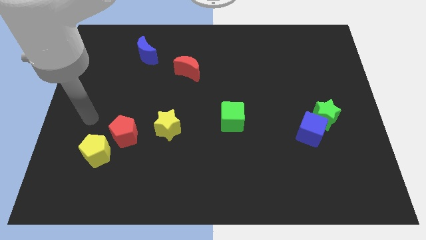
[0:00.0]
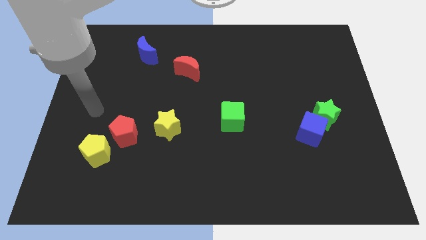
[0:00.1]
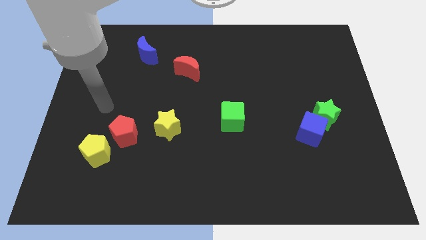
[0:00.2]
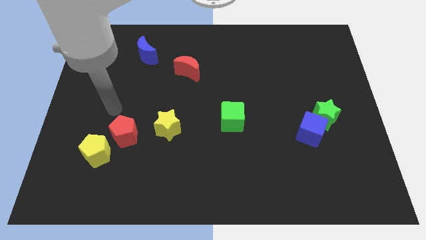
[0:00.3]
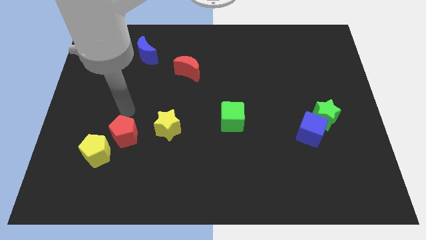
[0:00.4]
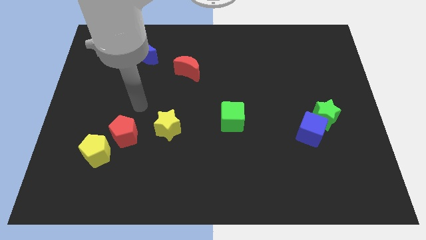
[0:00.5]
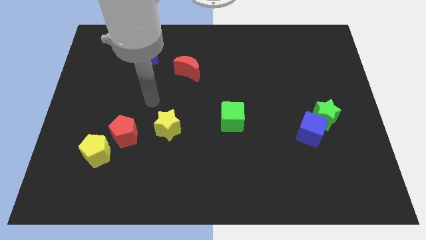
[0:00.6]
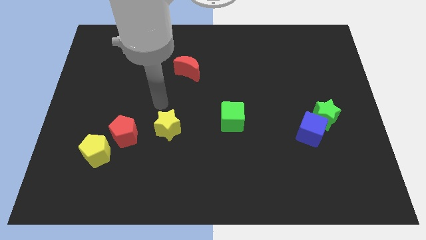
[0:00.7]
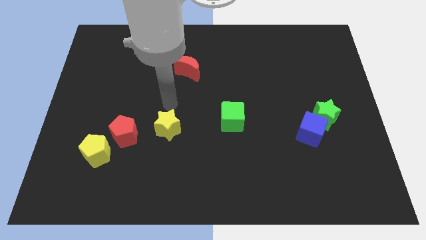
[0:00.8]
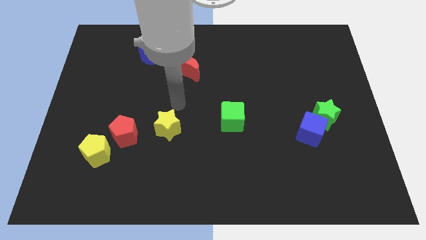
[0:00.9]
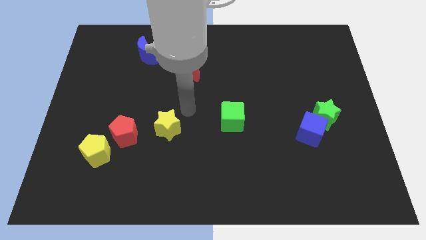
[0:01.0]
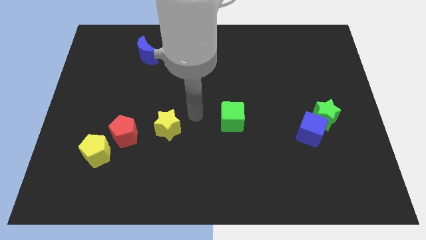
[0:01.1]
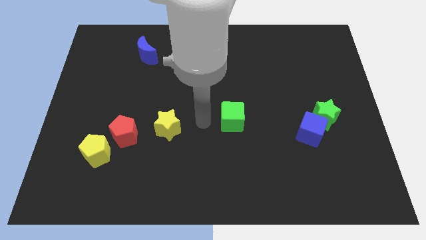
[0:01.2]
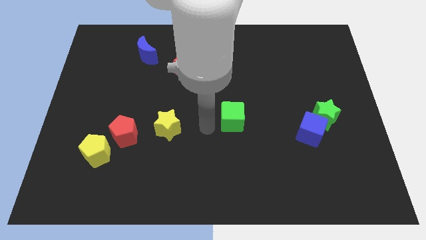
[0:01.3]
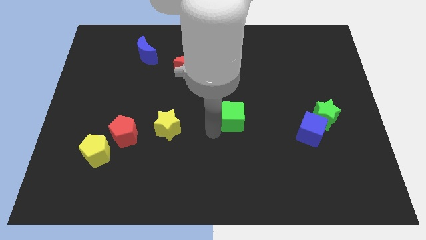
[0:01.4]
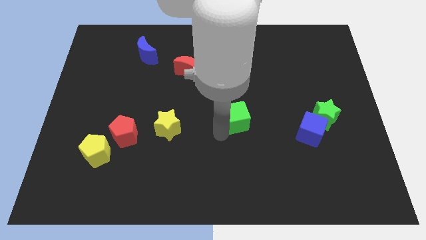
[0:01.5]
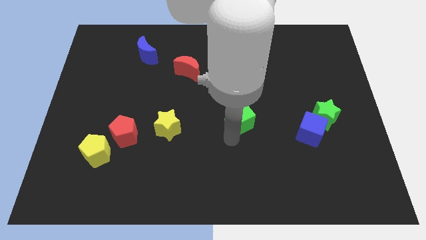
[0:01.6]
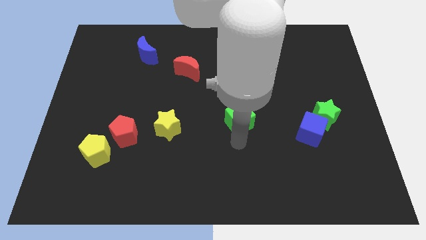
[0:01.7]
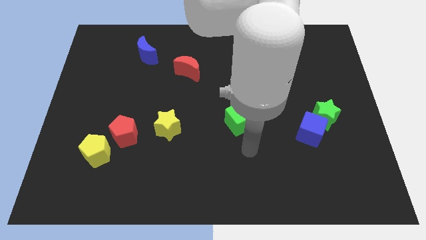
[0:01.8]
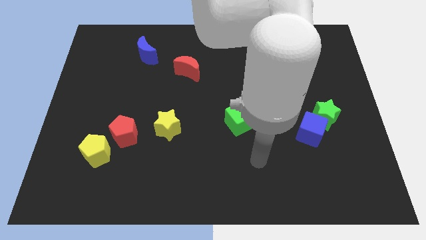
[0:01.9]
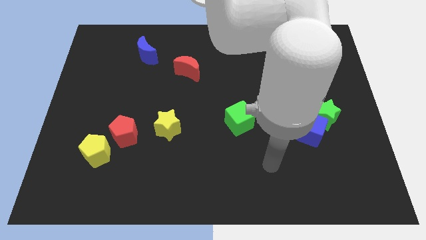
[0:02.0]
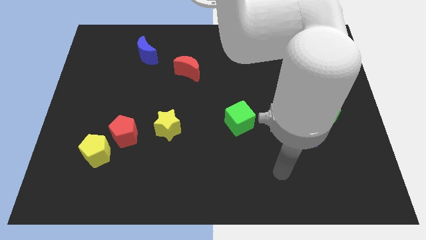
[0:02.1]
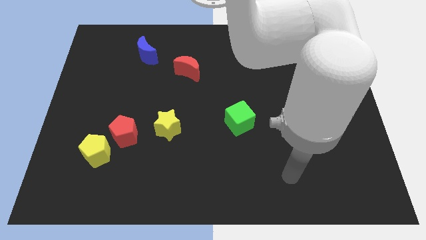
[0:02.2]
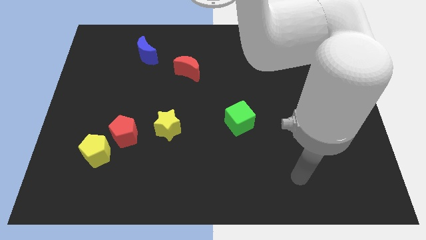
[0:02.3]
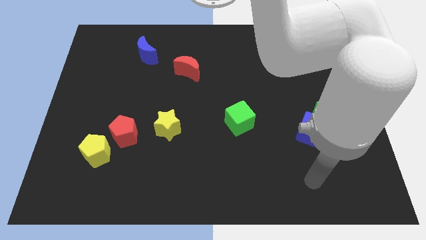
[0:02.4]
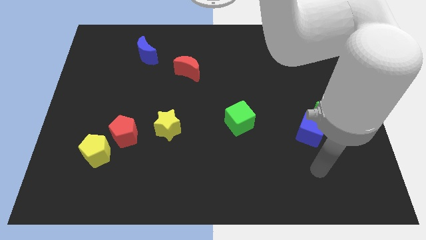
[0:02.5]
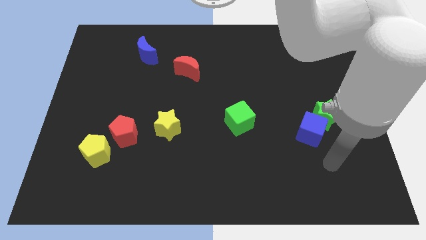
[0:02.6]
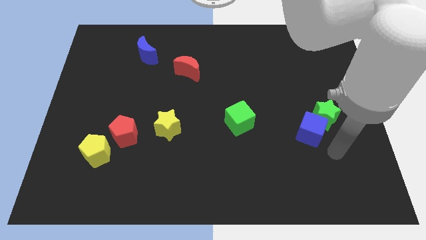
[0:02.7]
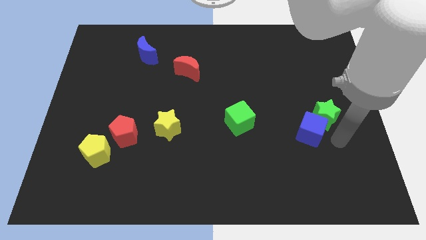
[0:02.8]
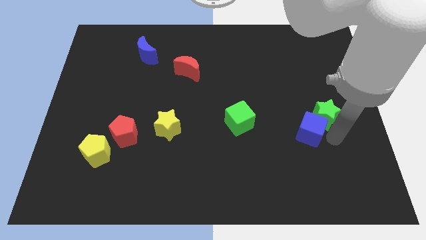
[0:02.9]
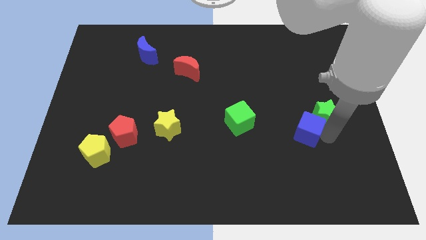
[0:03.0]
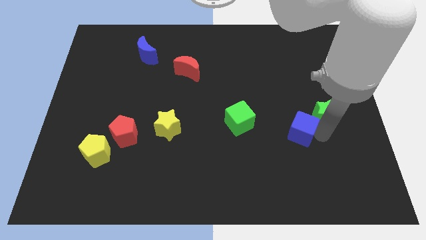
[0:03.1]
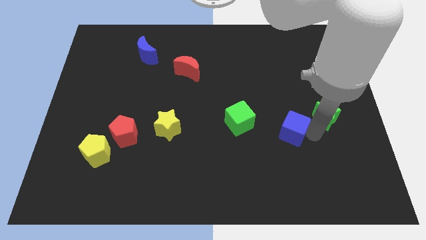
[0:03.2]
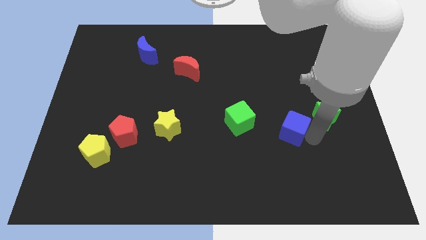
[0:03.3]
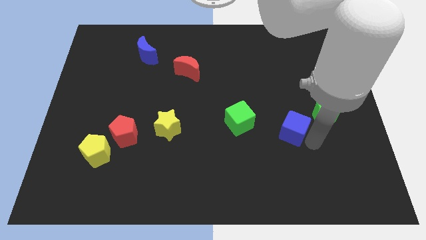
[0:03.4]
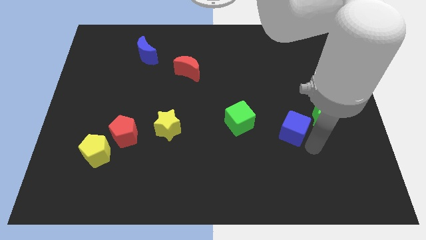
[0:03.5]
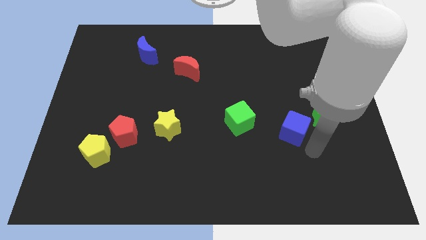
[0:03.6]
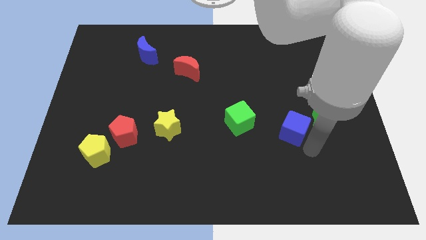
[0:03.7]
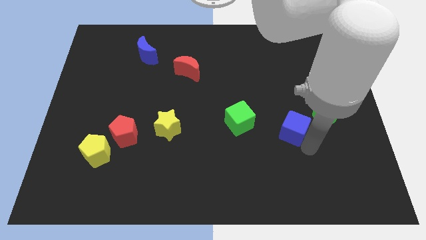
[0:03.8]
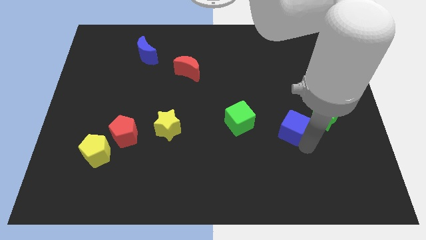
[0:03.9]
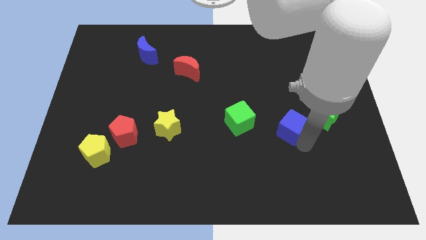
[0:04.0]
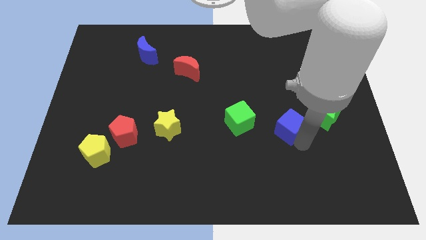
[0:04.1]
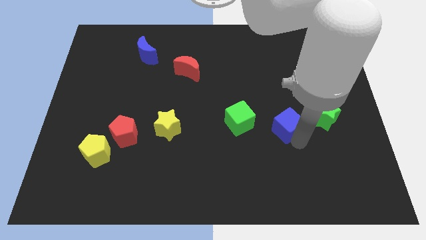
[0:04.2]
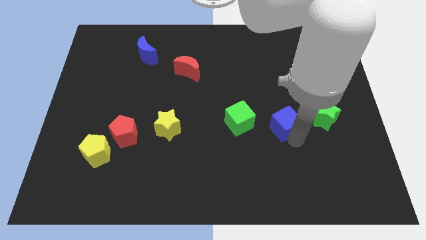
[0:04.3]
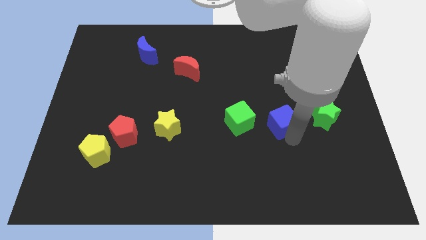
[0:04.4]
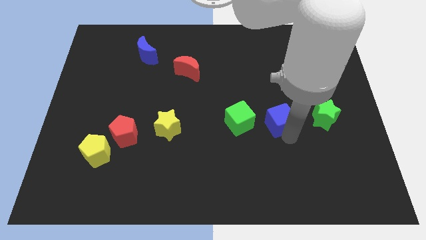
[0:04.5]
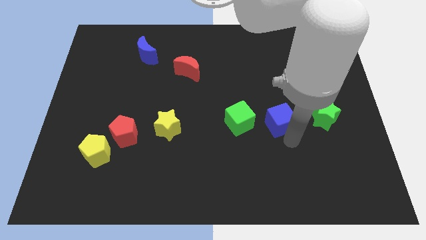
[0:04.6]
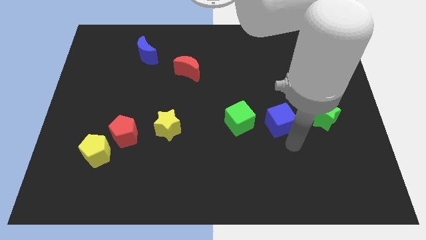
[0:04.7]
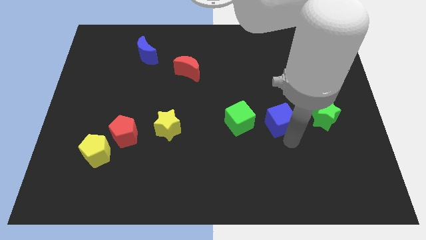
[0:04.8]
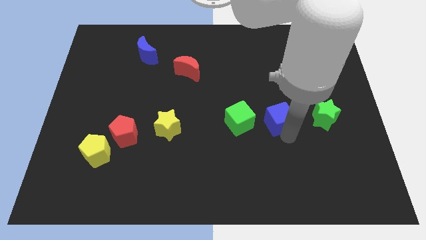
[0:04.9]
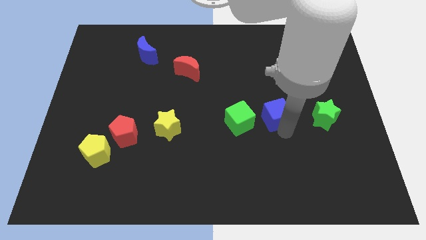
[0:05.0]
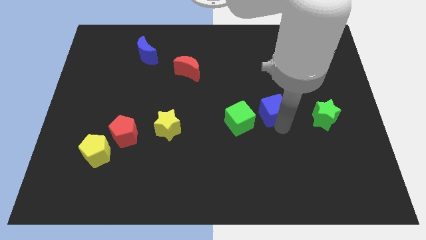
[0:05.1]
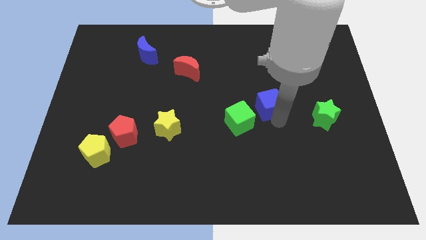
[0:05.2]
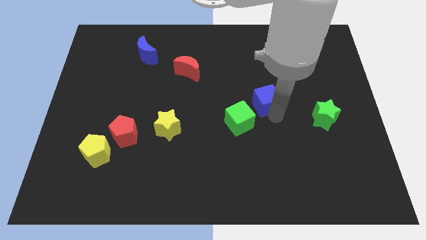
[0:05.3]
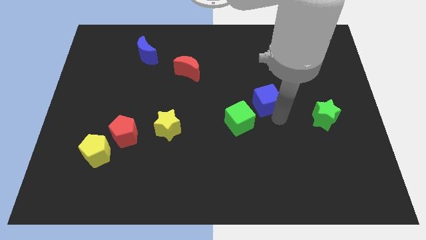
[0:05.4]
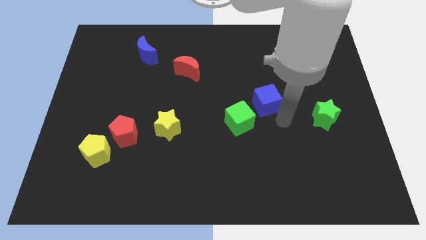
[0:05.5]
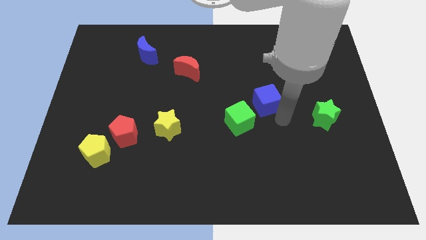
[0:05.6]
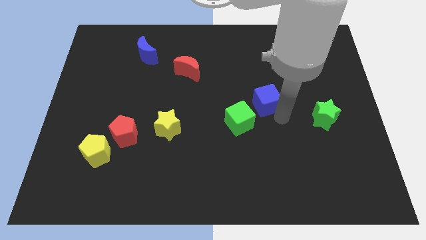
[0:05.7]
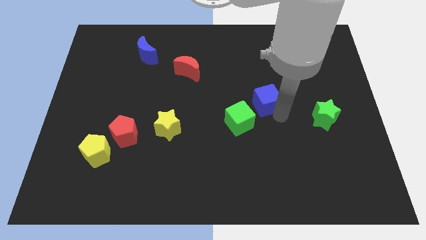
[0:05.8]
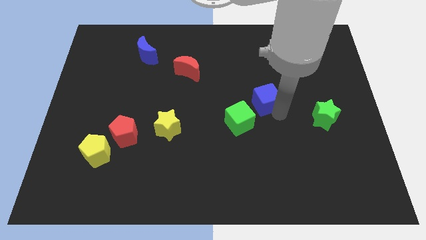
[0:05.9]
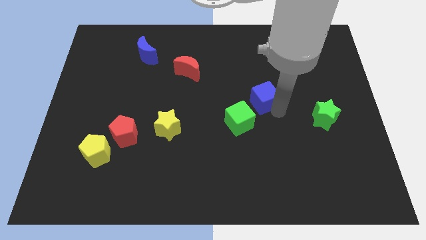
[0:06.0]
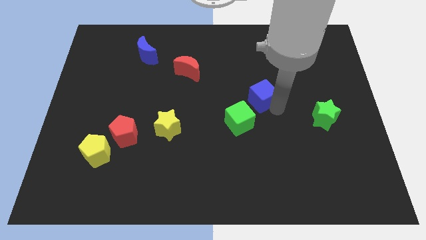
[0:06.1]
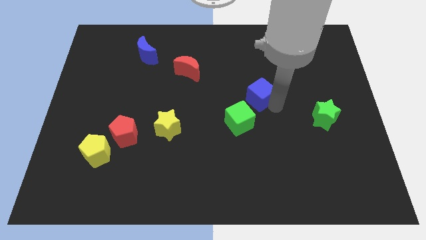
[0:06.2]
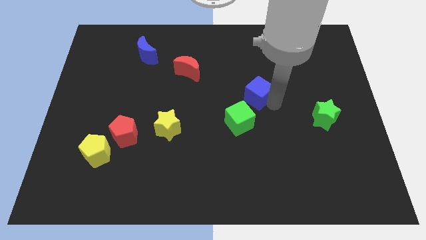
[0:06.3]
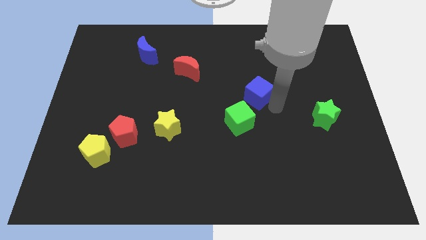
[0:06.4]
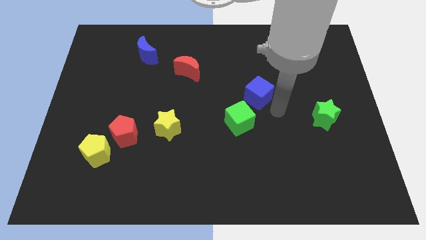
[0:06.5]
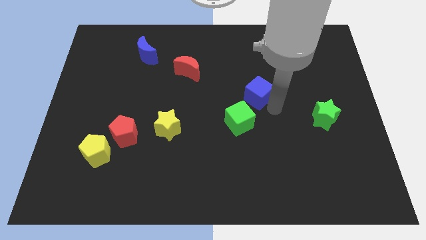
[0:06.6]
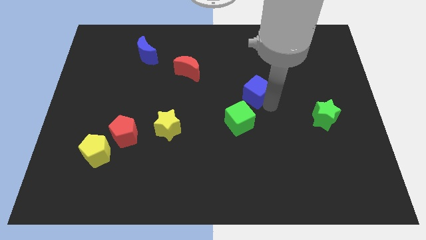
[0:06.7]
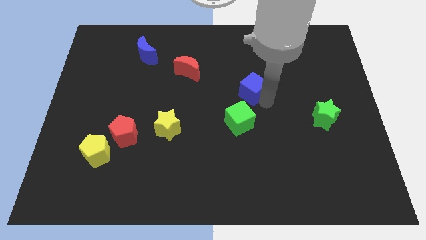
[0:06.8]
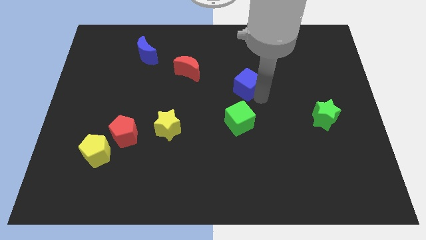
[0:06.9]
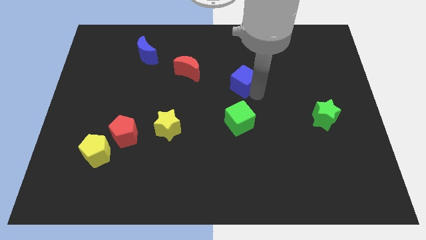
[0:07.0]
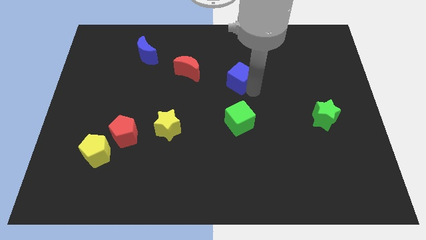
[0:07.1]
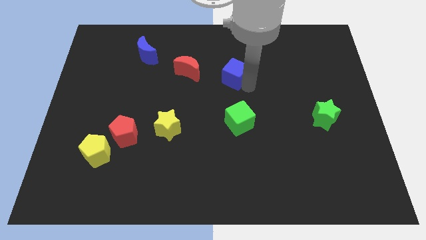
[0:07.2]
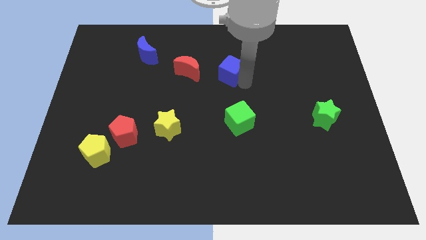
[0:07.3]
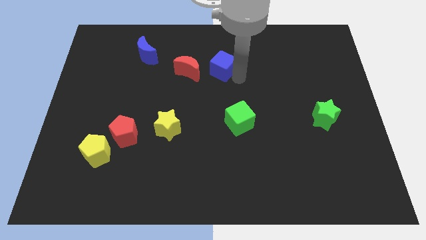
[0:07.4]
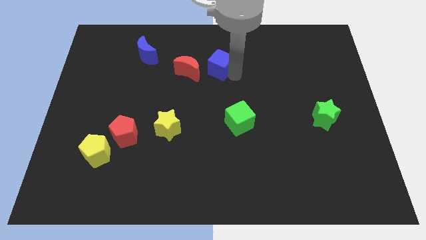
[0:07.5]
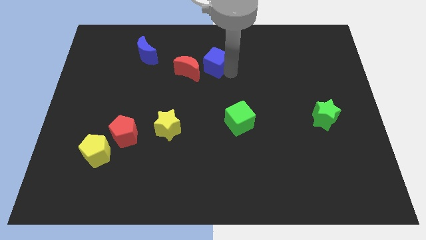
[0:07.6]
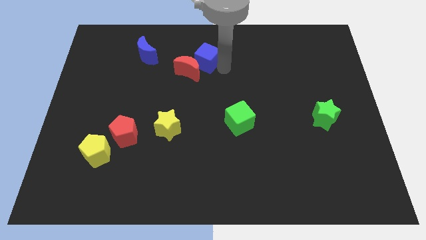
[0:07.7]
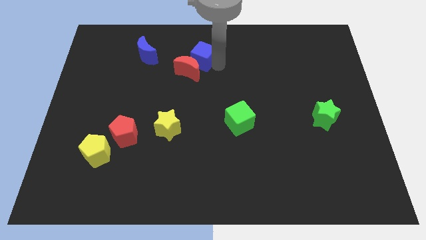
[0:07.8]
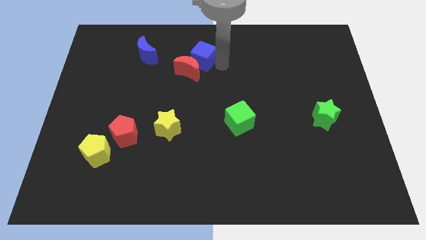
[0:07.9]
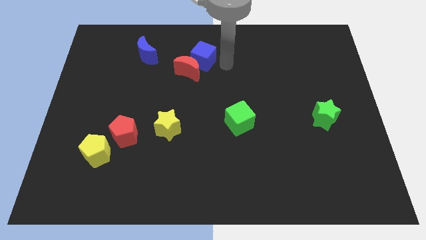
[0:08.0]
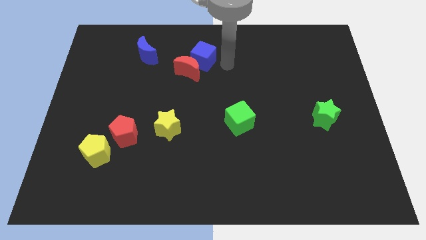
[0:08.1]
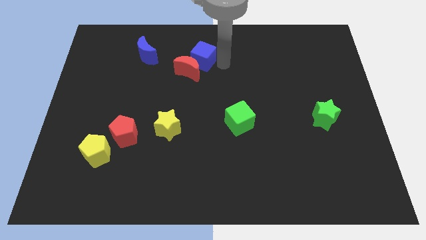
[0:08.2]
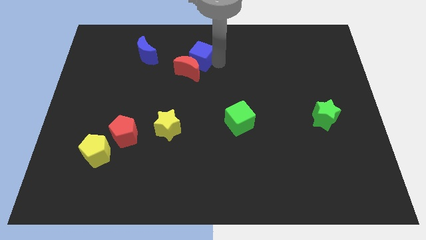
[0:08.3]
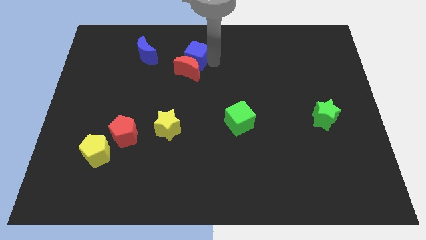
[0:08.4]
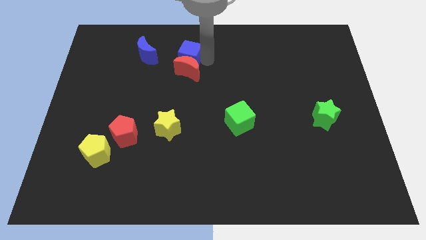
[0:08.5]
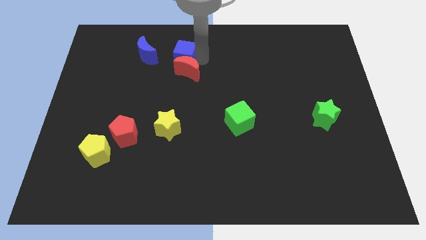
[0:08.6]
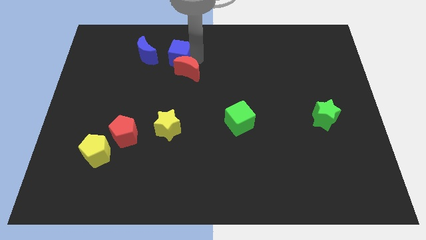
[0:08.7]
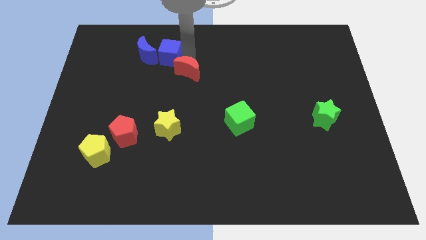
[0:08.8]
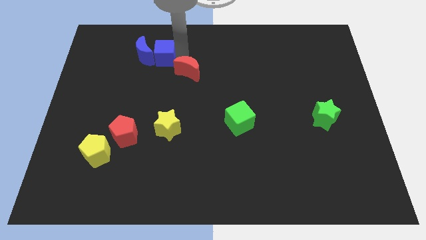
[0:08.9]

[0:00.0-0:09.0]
move the blue cube close to the blue moon
